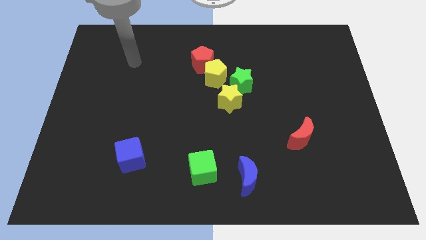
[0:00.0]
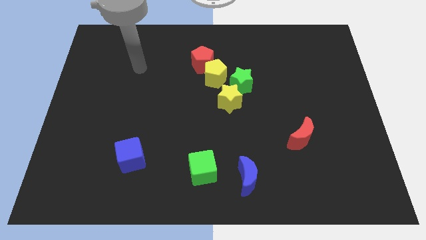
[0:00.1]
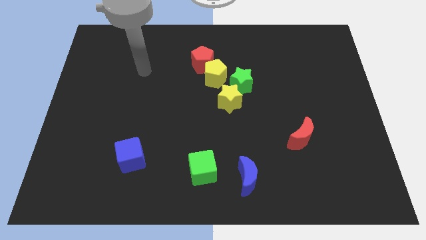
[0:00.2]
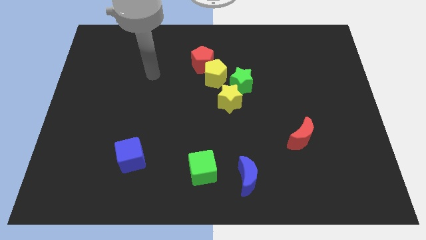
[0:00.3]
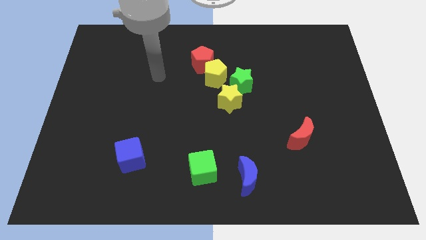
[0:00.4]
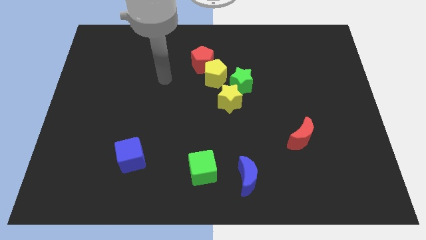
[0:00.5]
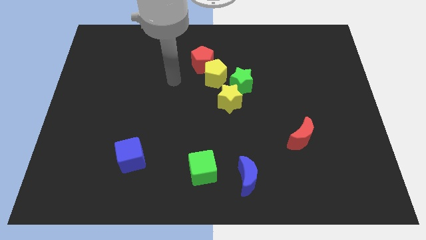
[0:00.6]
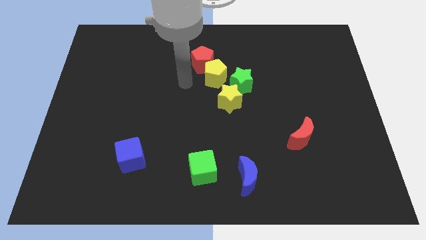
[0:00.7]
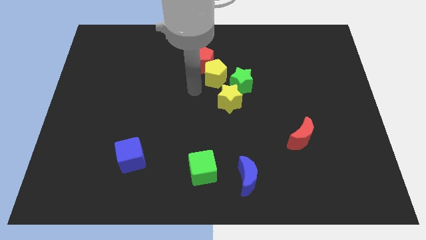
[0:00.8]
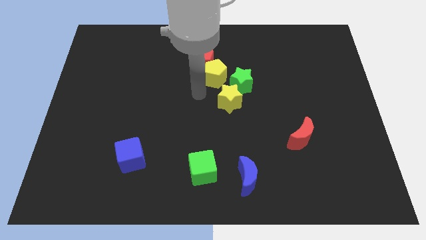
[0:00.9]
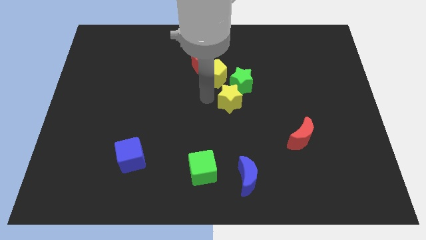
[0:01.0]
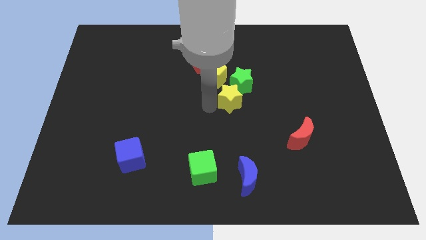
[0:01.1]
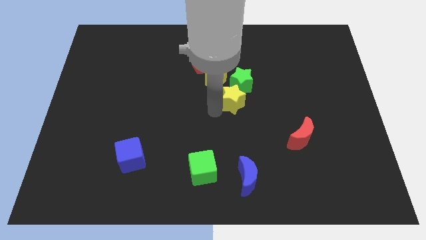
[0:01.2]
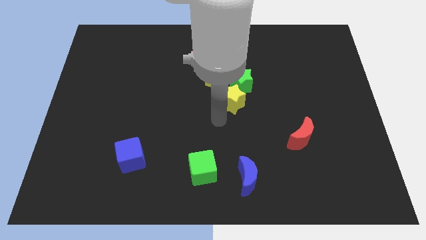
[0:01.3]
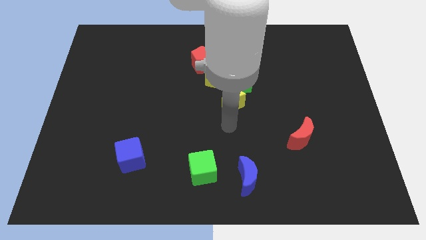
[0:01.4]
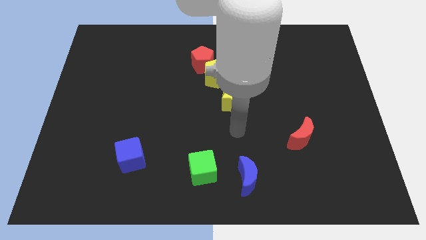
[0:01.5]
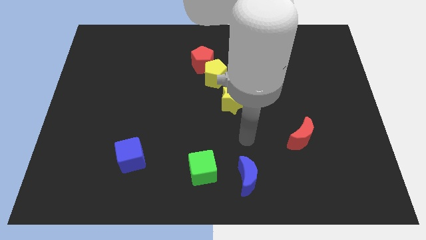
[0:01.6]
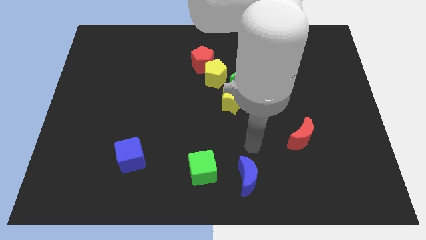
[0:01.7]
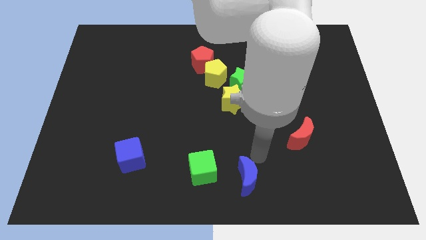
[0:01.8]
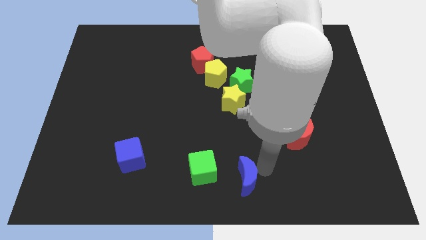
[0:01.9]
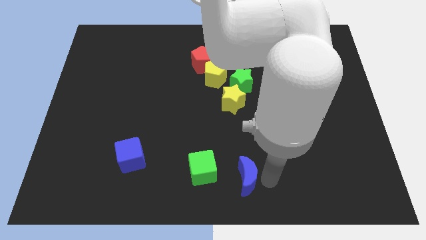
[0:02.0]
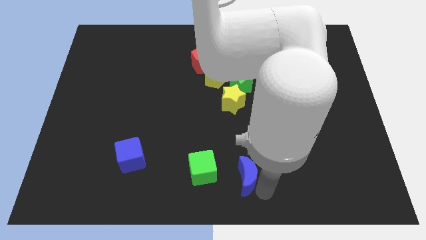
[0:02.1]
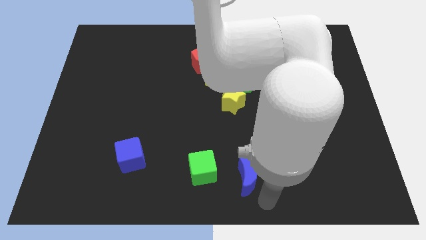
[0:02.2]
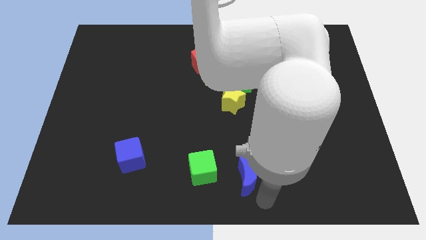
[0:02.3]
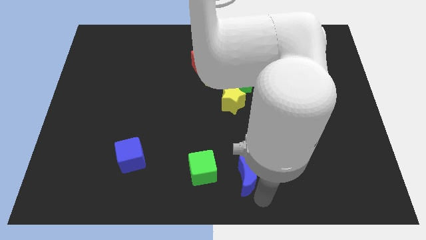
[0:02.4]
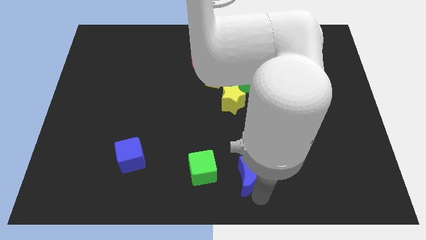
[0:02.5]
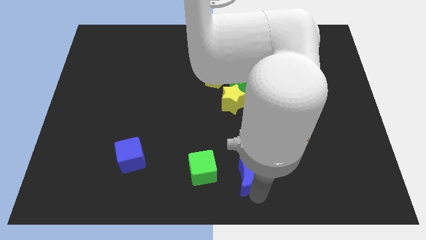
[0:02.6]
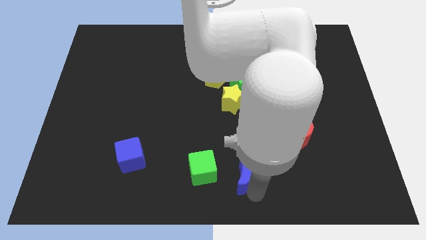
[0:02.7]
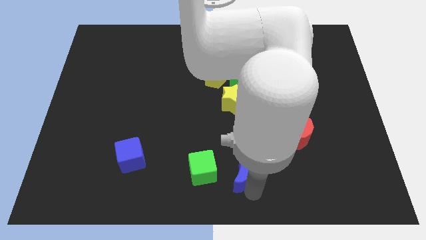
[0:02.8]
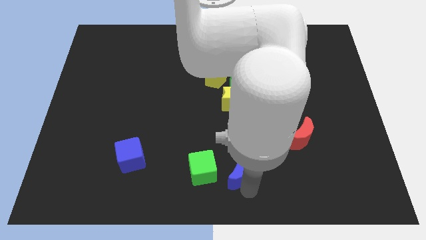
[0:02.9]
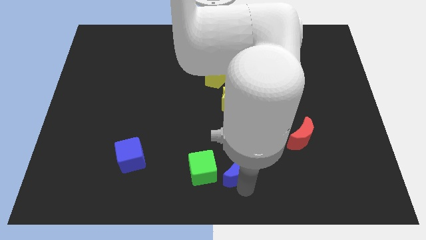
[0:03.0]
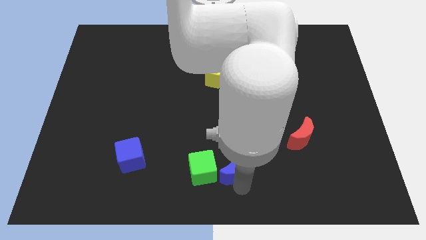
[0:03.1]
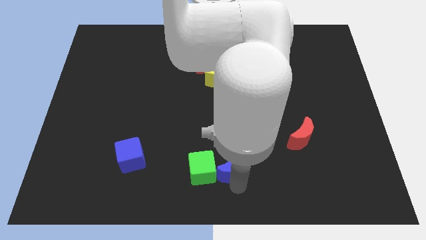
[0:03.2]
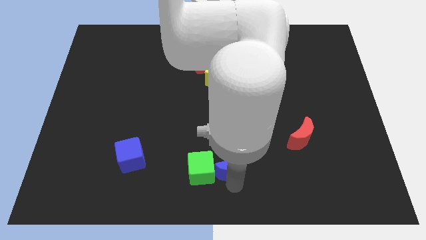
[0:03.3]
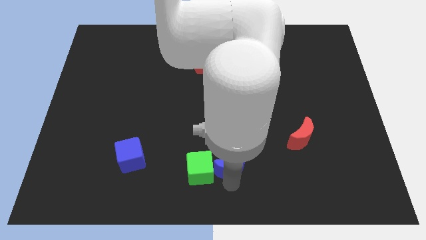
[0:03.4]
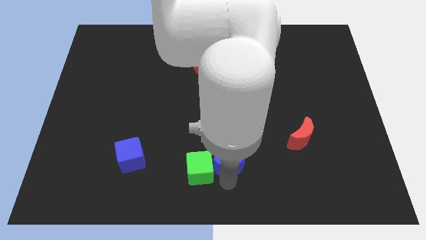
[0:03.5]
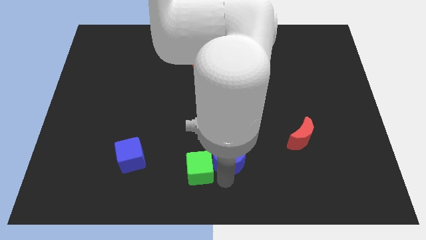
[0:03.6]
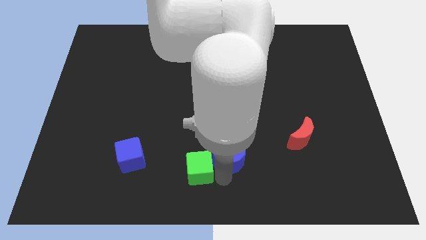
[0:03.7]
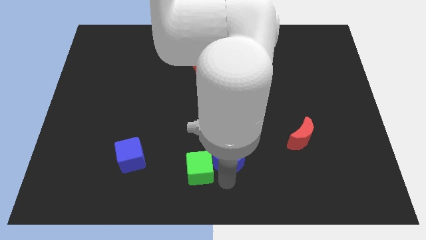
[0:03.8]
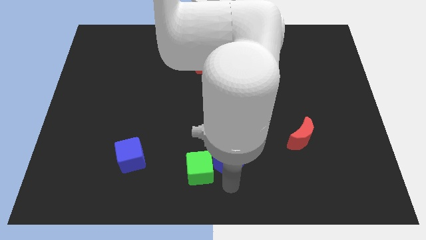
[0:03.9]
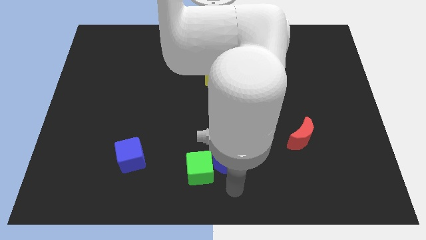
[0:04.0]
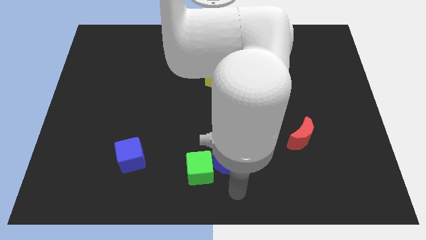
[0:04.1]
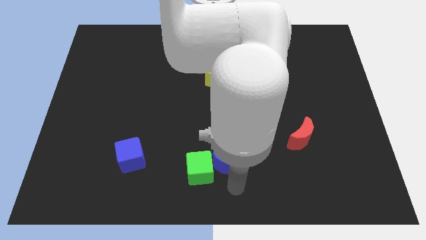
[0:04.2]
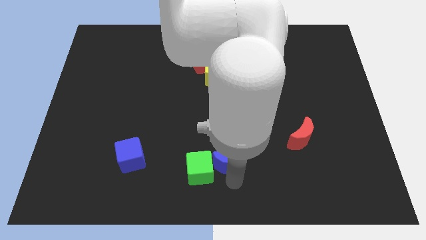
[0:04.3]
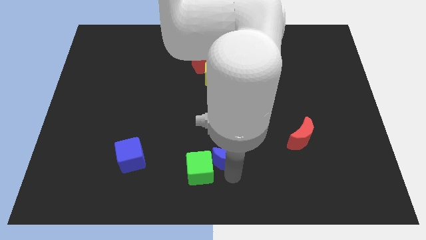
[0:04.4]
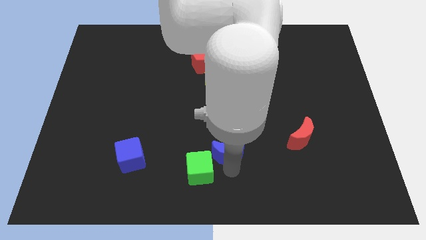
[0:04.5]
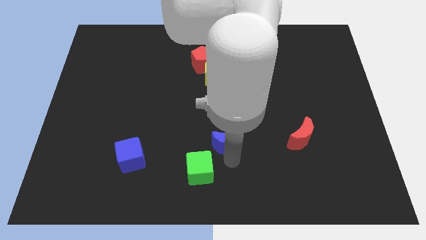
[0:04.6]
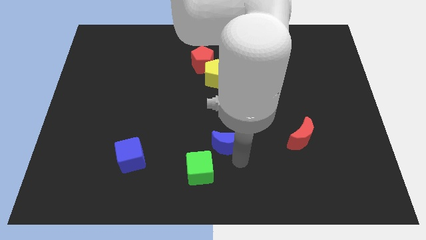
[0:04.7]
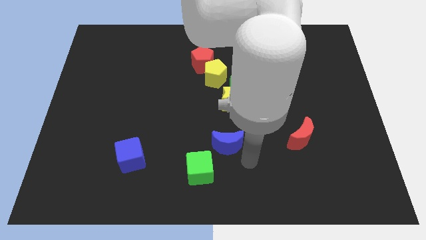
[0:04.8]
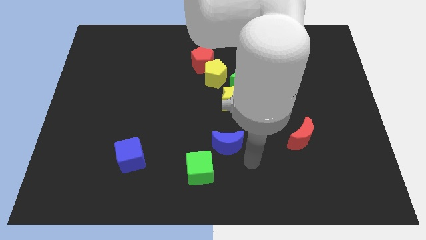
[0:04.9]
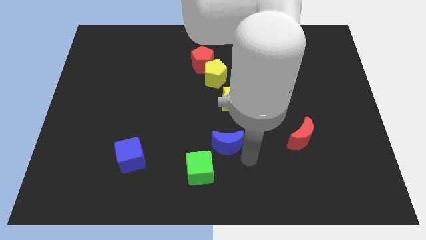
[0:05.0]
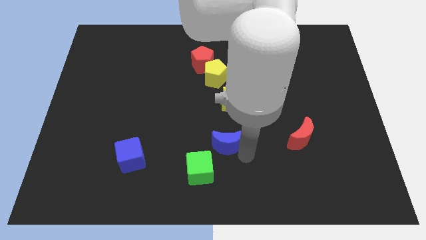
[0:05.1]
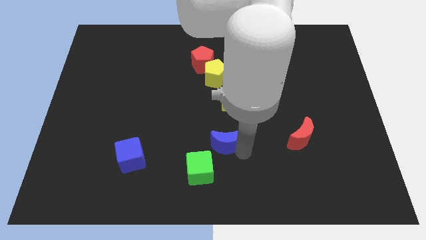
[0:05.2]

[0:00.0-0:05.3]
move the blue moon to the middle
